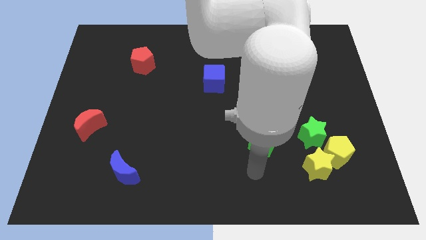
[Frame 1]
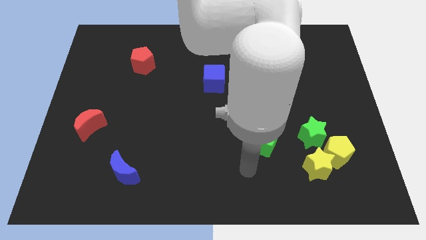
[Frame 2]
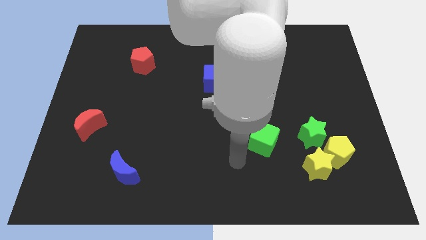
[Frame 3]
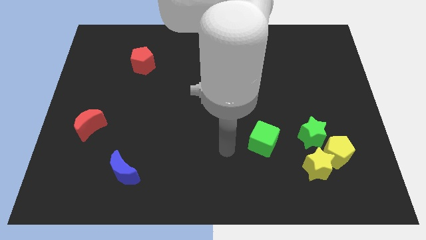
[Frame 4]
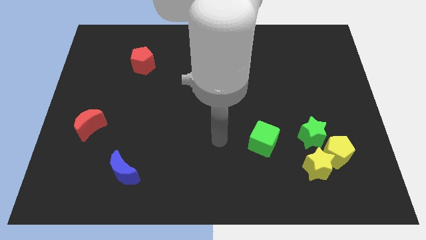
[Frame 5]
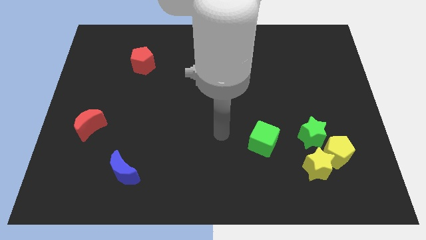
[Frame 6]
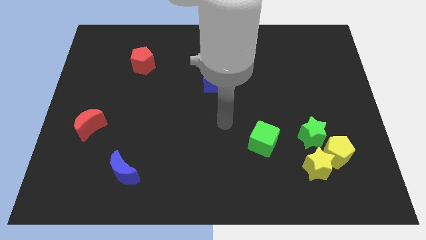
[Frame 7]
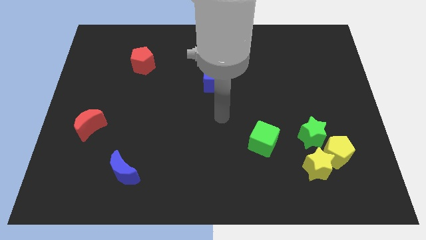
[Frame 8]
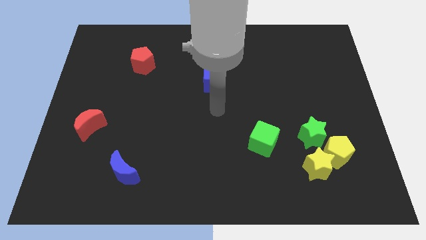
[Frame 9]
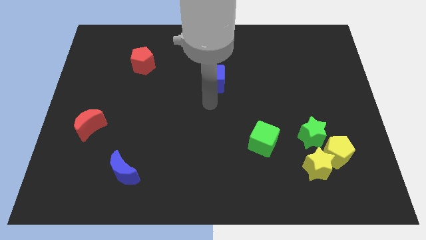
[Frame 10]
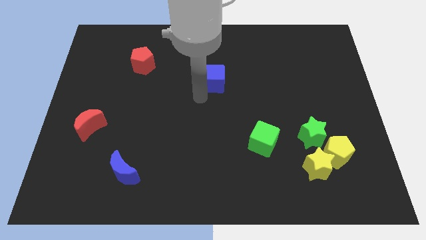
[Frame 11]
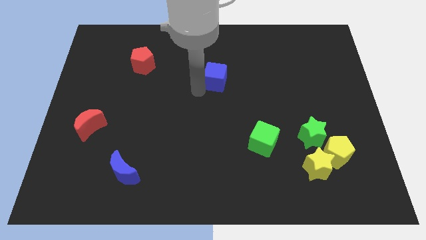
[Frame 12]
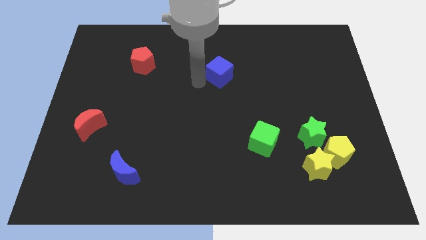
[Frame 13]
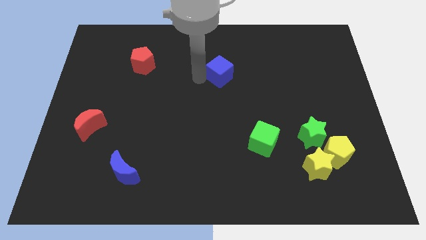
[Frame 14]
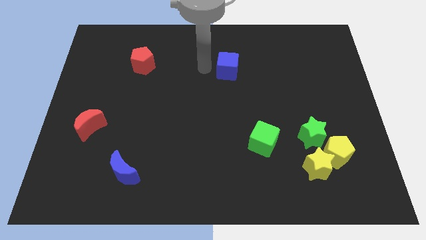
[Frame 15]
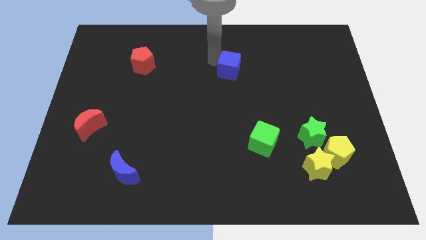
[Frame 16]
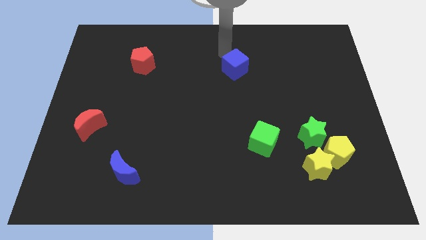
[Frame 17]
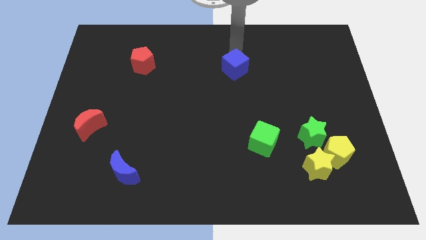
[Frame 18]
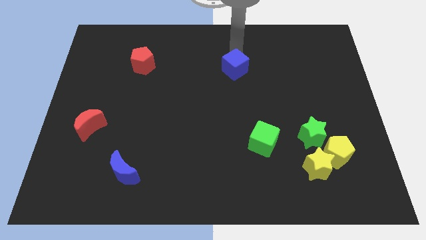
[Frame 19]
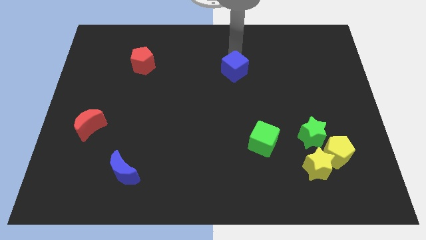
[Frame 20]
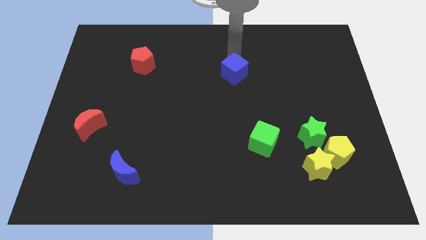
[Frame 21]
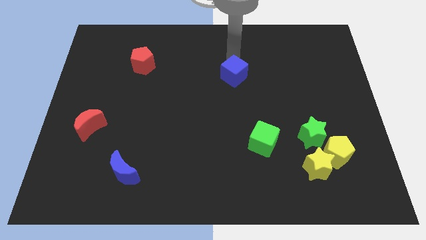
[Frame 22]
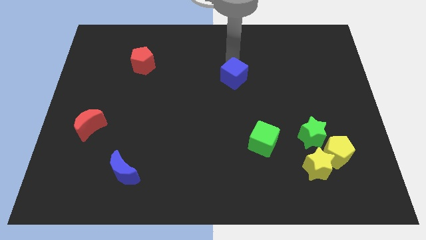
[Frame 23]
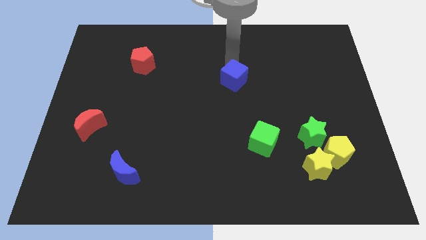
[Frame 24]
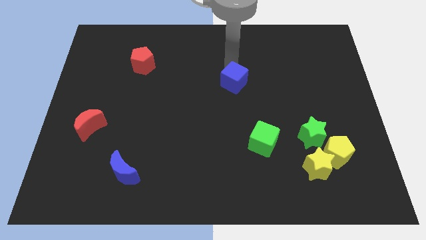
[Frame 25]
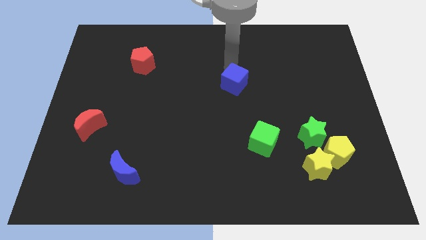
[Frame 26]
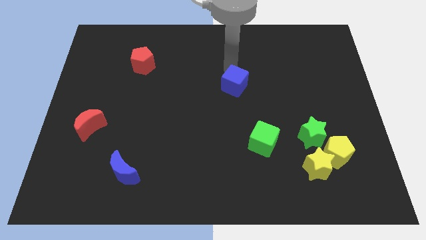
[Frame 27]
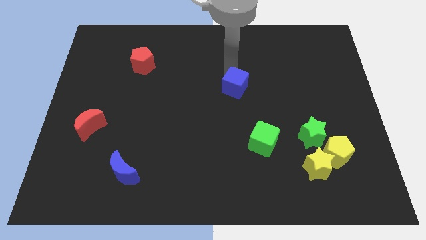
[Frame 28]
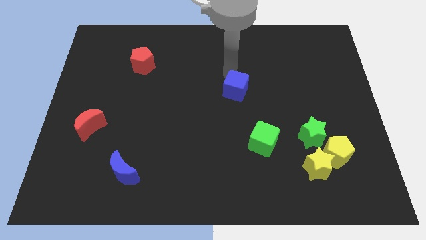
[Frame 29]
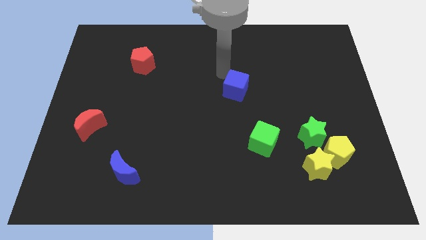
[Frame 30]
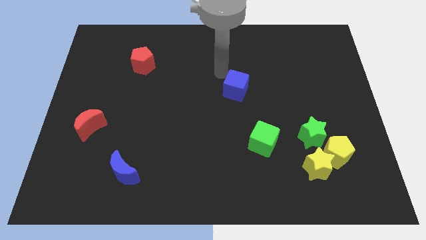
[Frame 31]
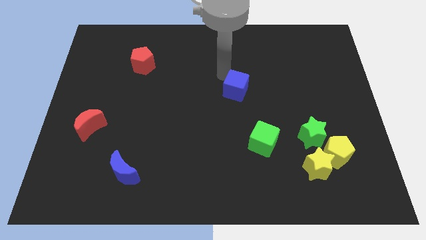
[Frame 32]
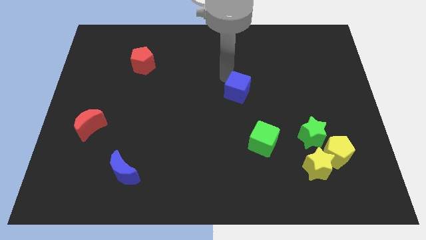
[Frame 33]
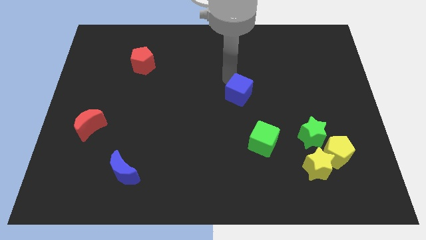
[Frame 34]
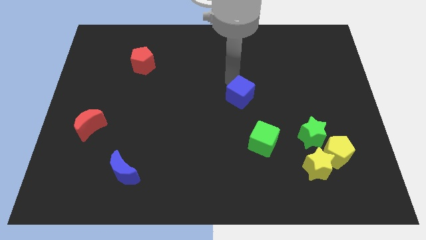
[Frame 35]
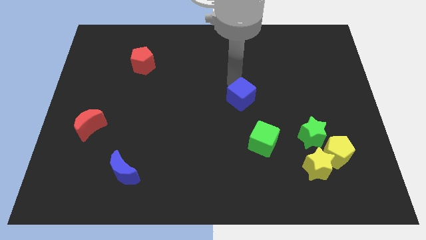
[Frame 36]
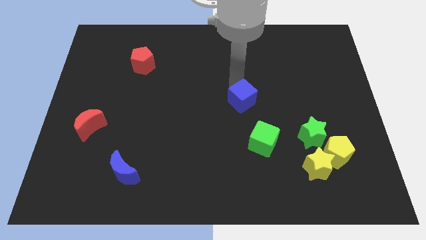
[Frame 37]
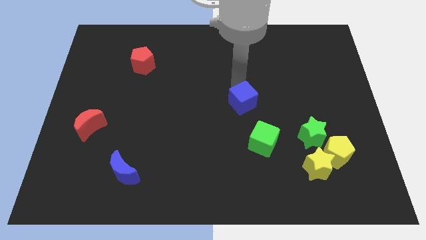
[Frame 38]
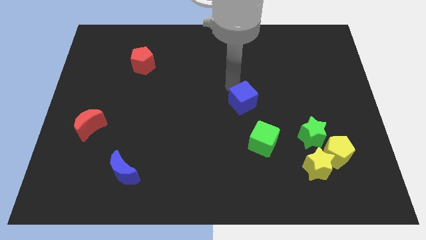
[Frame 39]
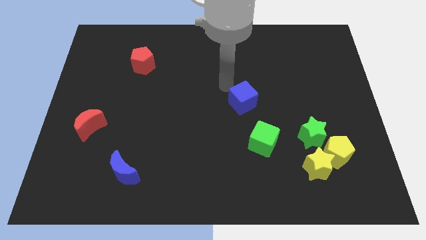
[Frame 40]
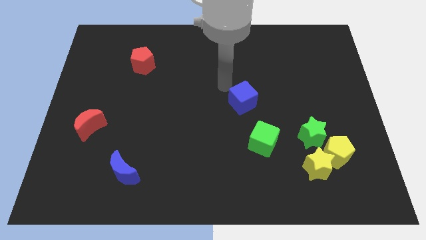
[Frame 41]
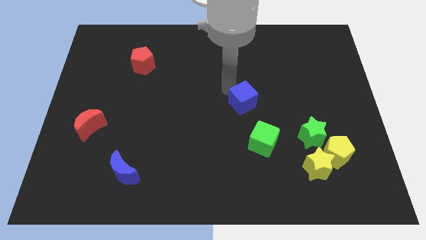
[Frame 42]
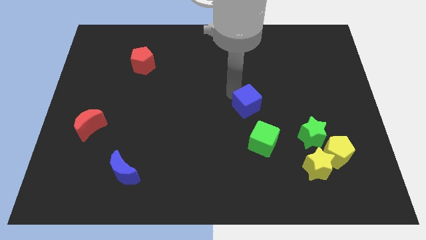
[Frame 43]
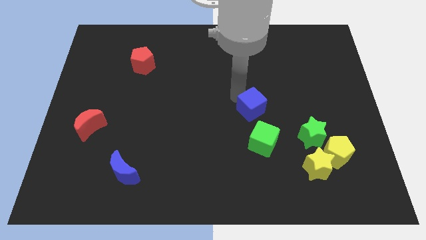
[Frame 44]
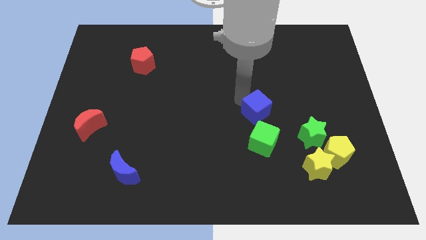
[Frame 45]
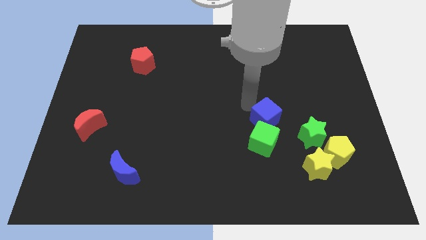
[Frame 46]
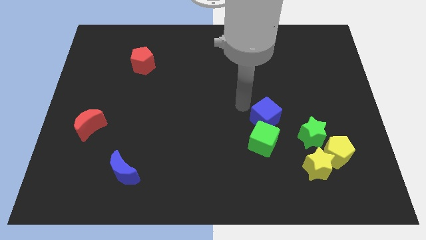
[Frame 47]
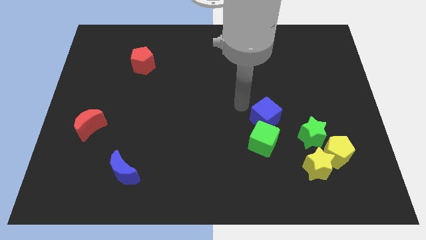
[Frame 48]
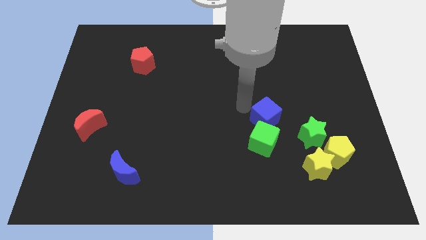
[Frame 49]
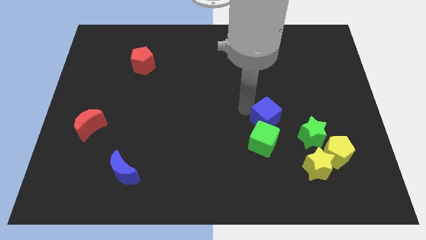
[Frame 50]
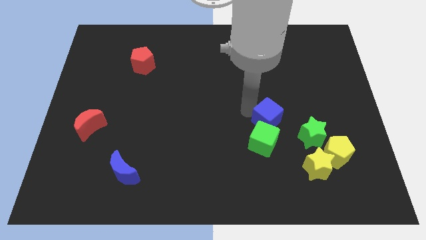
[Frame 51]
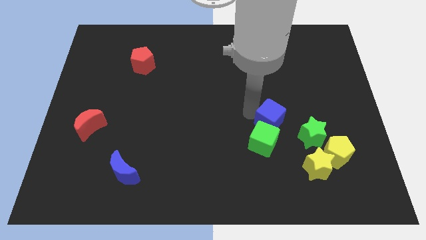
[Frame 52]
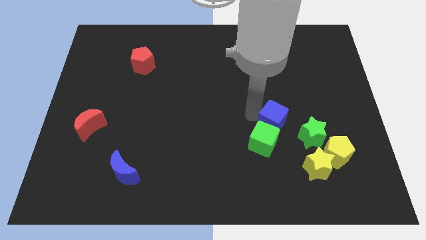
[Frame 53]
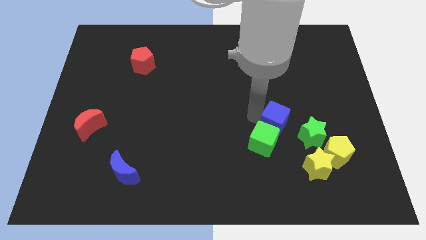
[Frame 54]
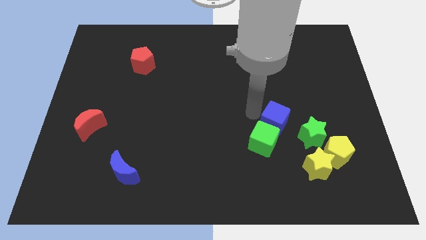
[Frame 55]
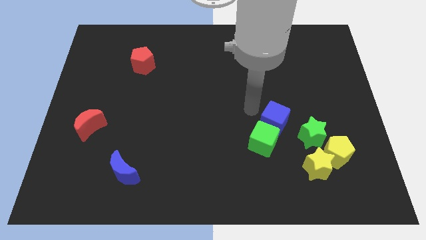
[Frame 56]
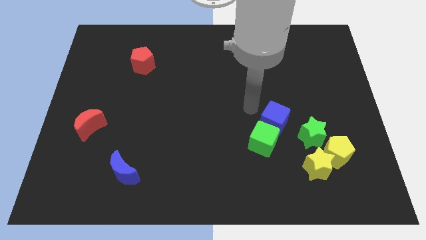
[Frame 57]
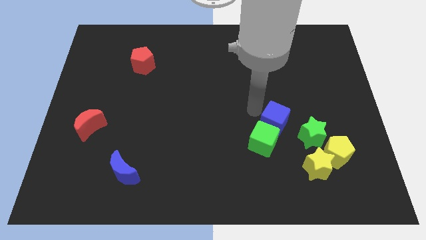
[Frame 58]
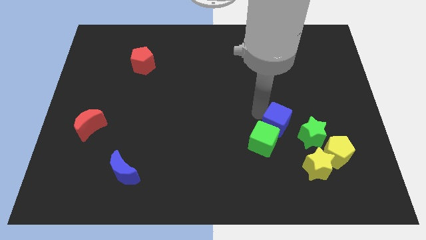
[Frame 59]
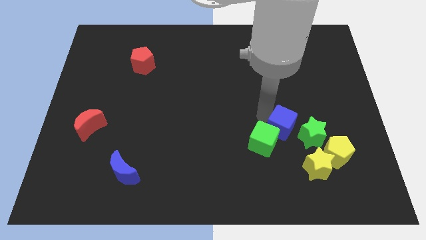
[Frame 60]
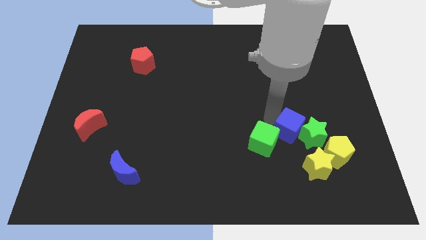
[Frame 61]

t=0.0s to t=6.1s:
slide the blue cube to the top left of the yellow star
